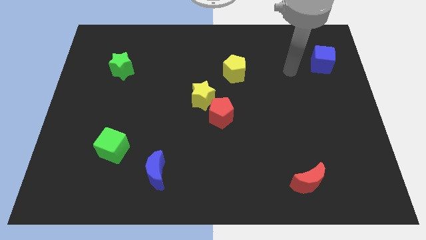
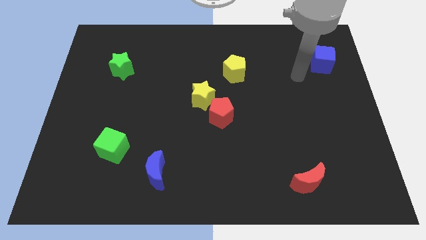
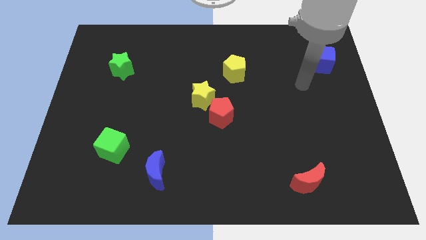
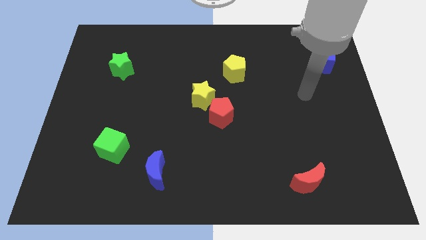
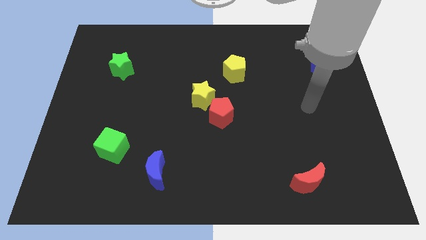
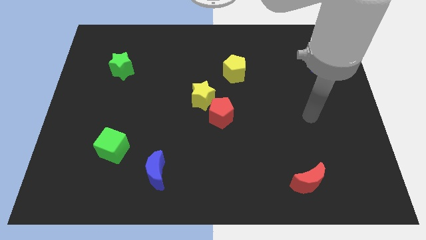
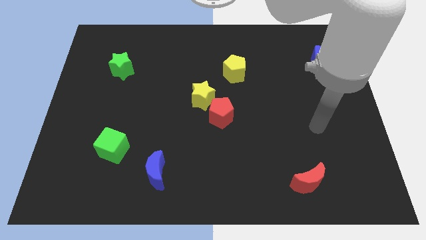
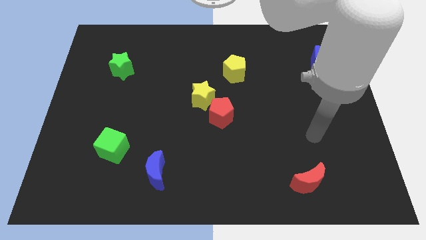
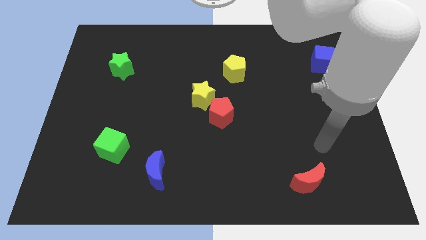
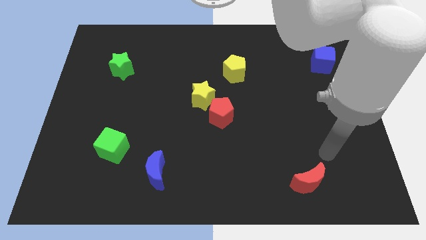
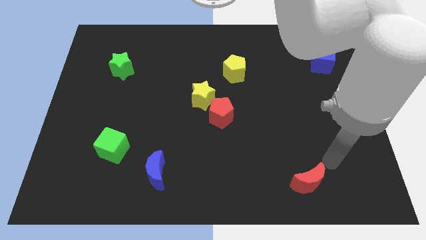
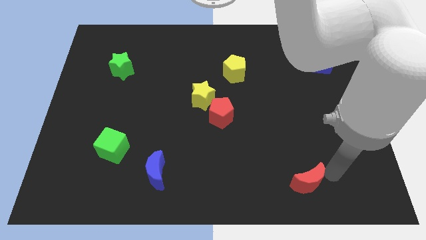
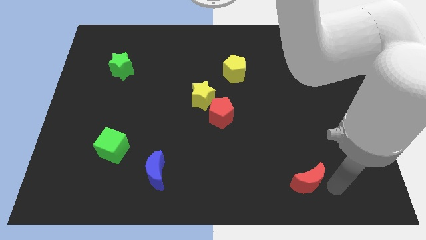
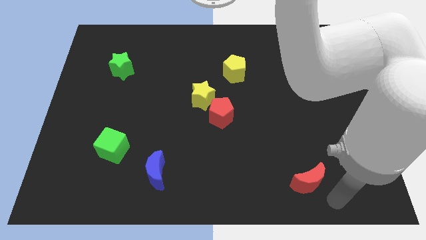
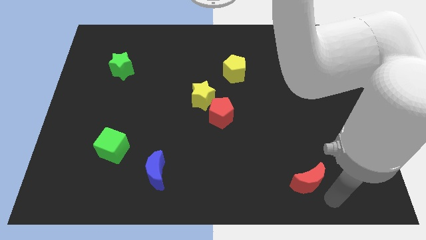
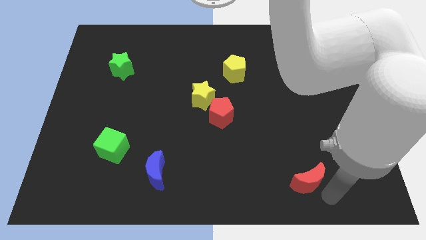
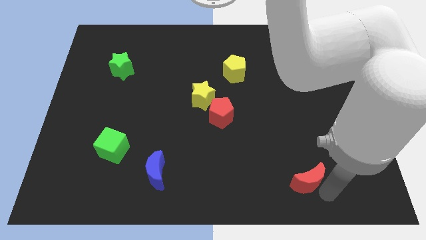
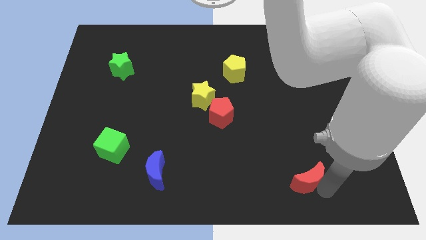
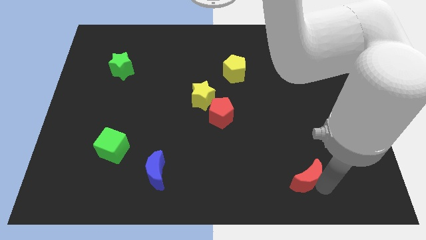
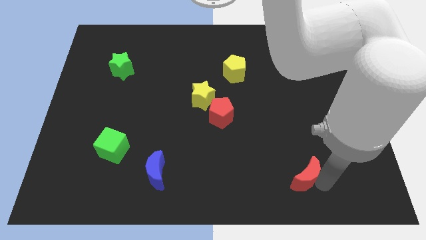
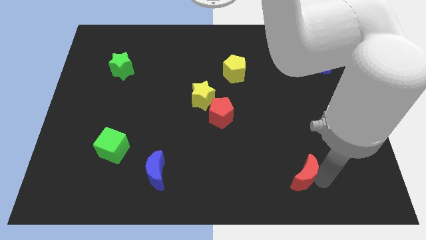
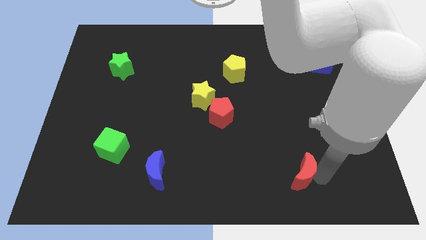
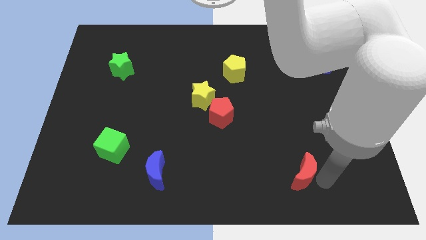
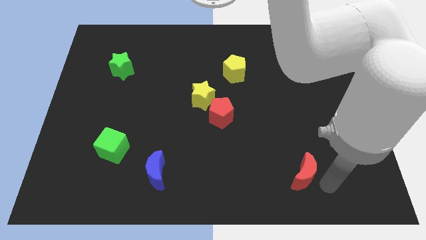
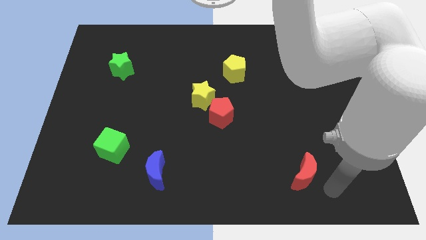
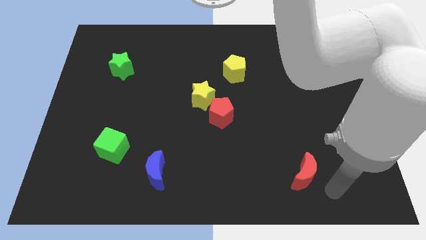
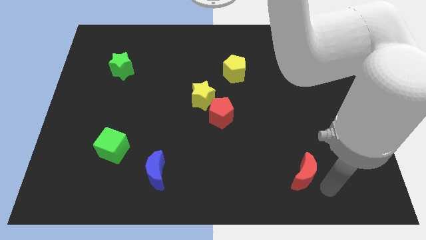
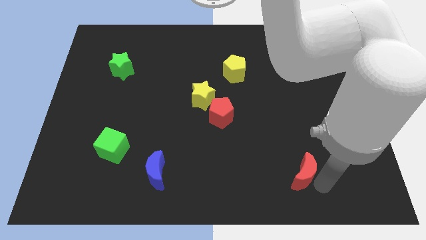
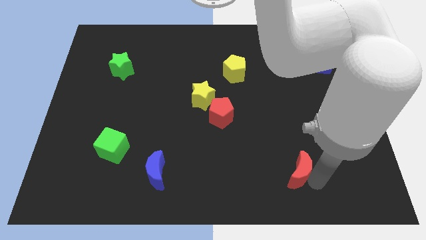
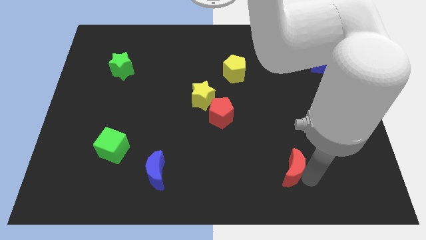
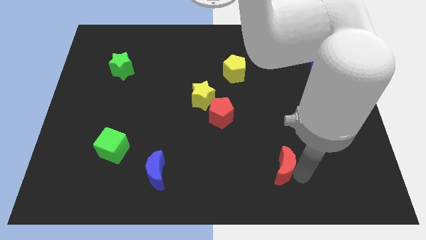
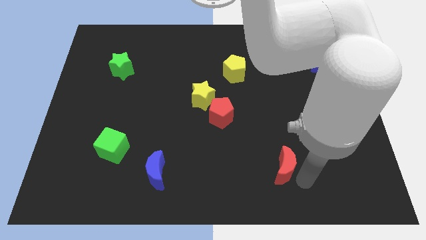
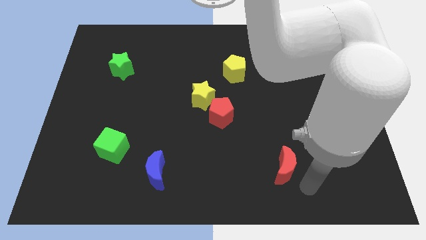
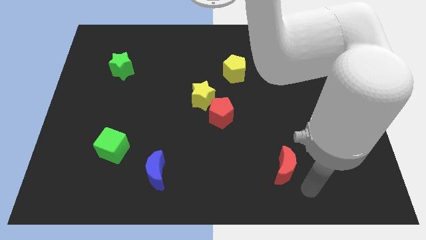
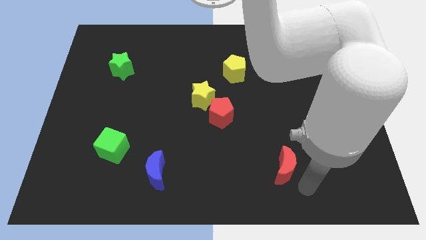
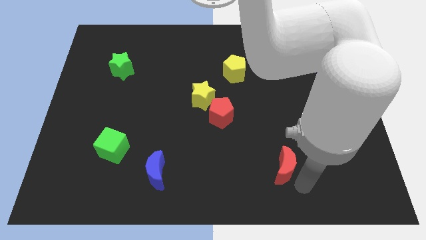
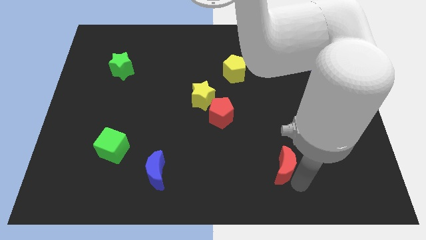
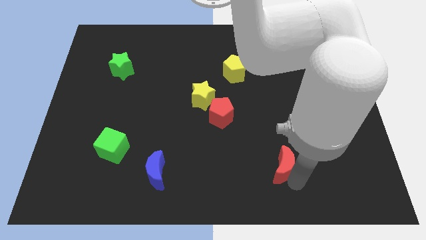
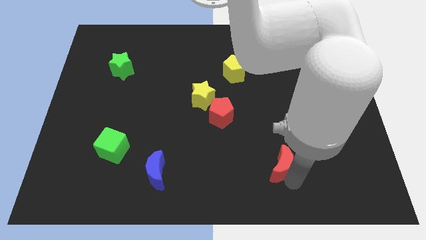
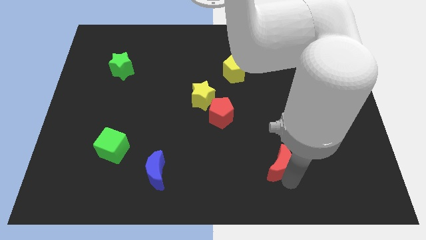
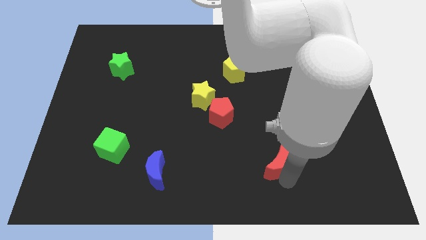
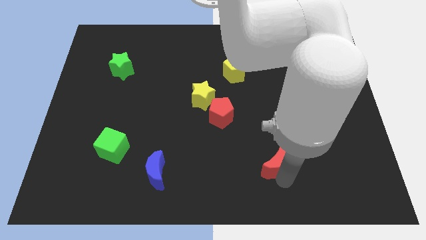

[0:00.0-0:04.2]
push the red moon a bit diagonally up and left

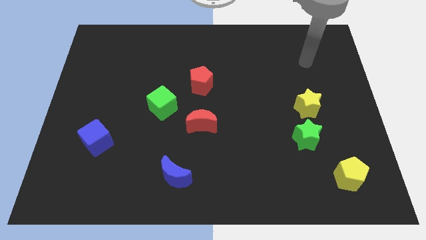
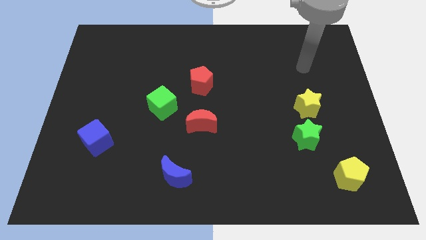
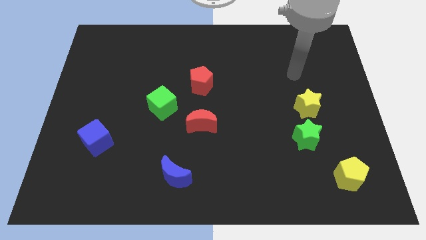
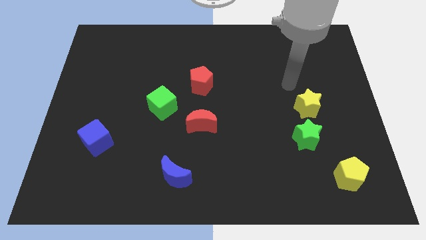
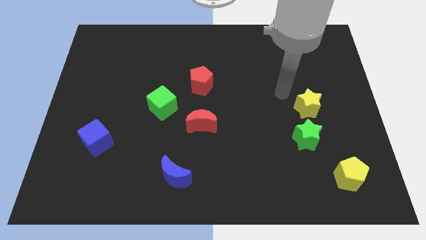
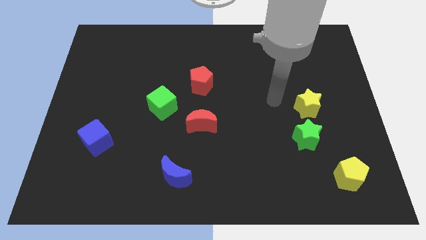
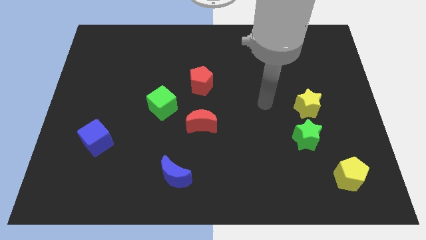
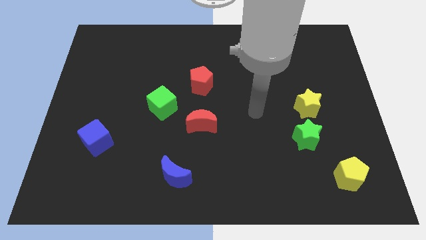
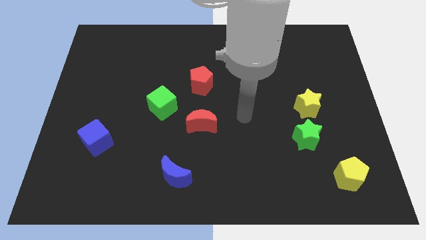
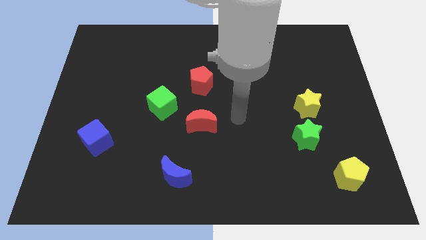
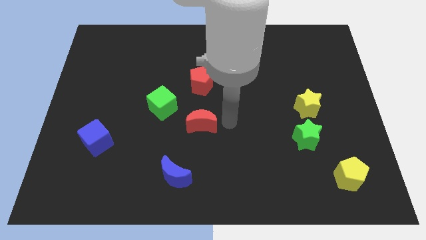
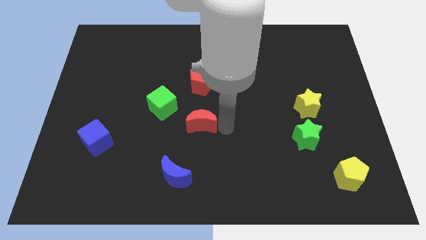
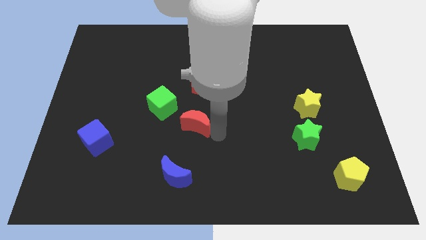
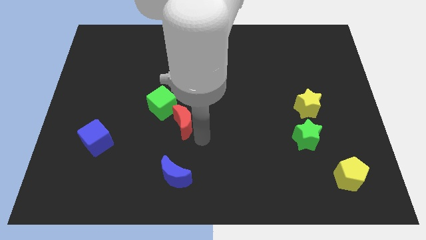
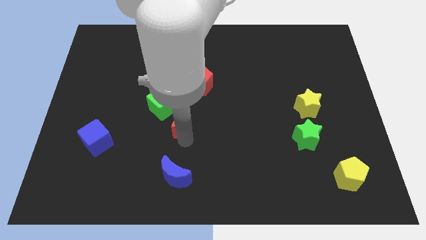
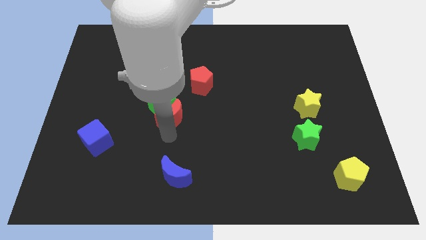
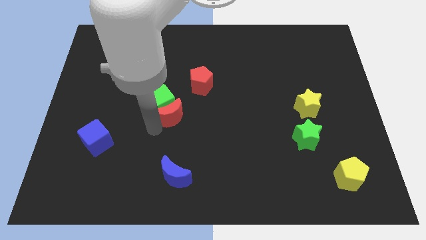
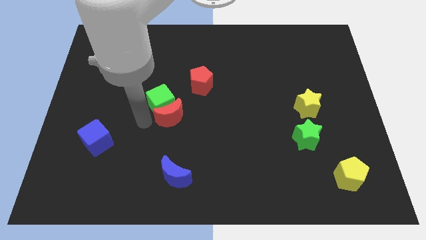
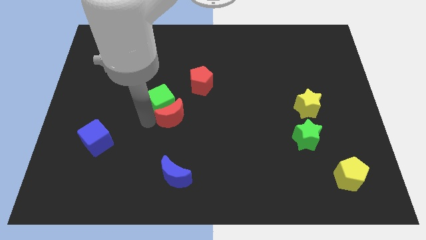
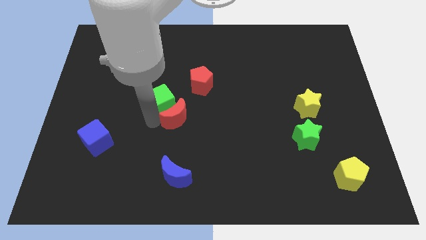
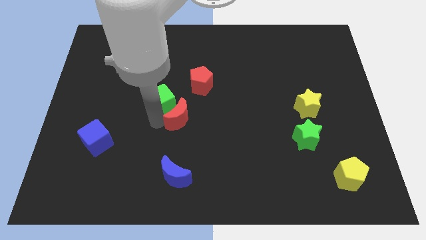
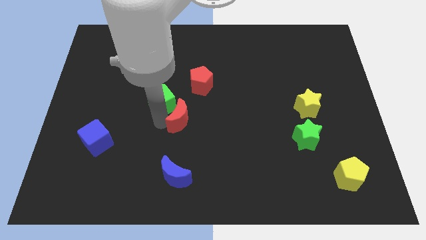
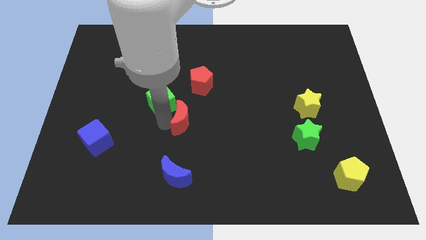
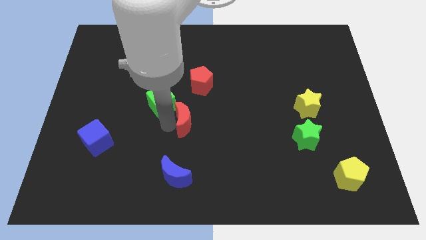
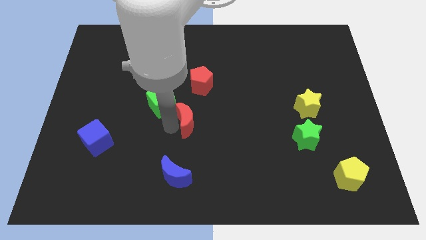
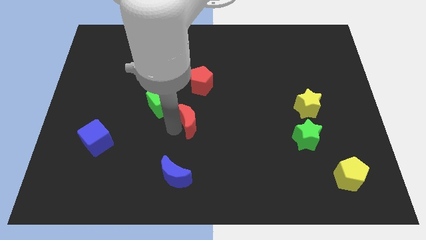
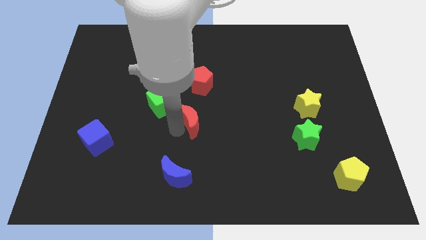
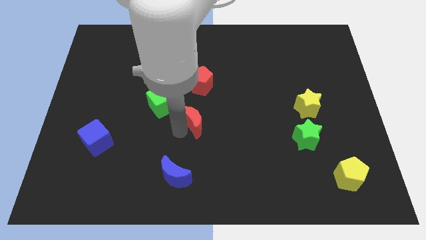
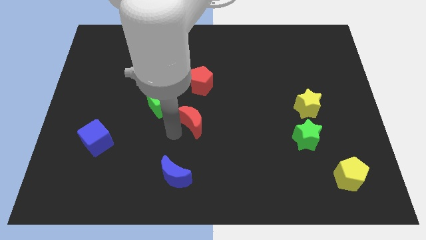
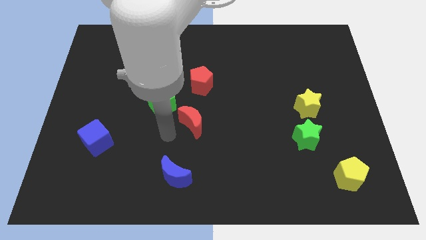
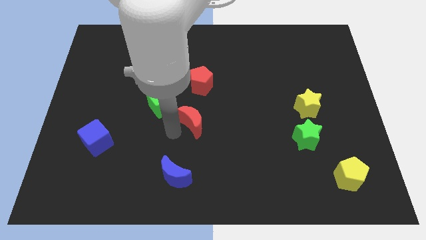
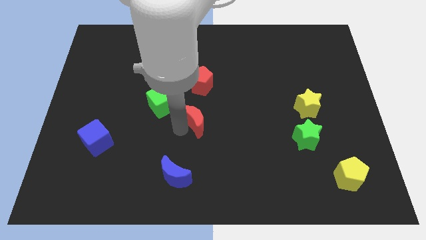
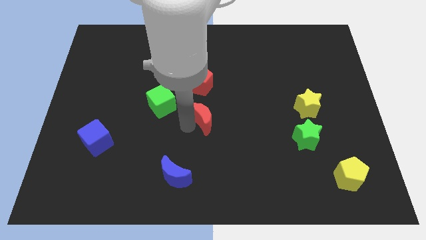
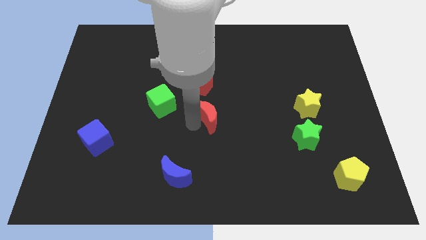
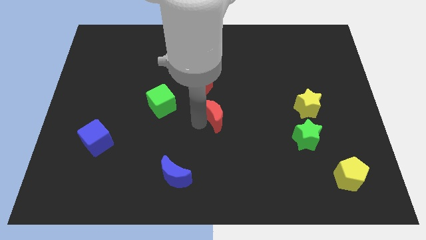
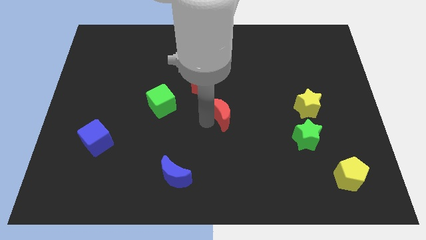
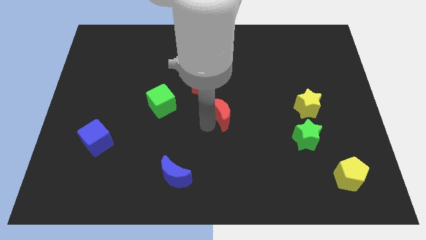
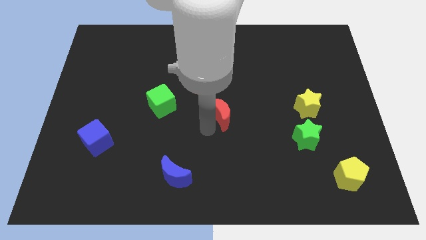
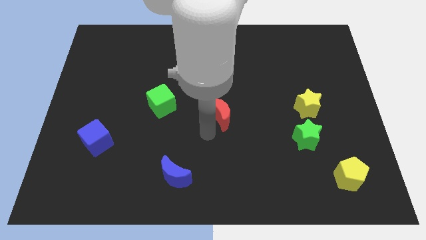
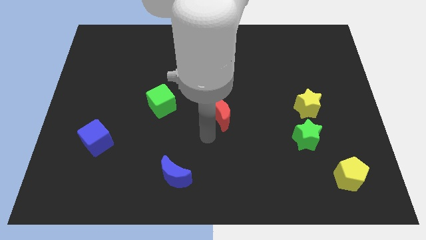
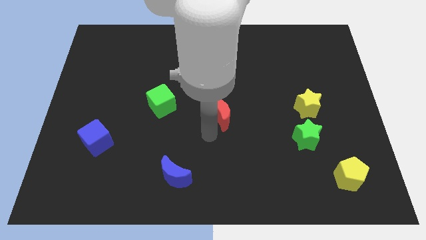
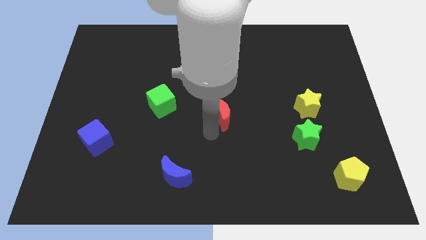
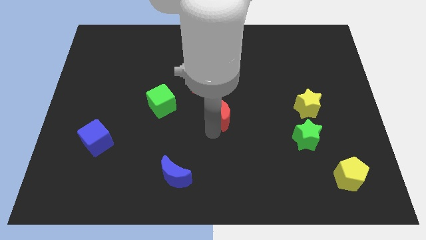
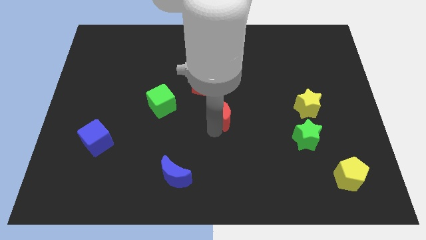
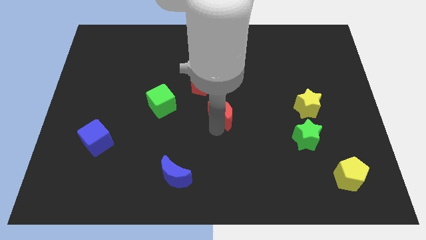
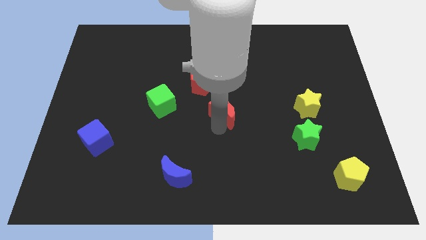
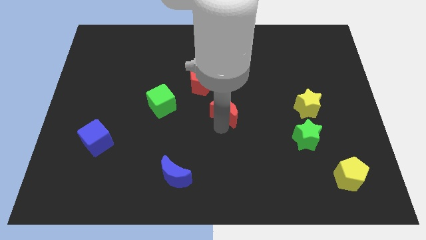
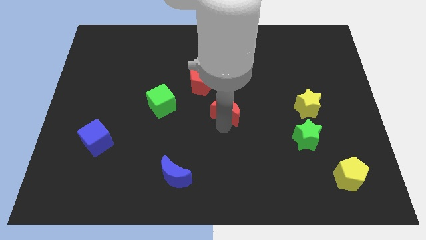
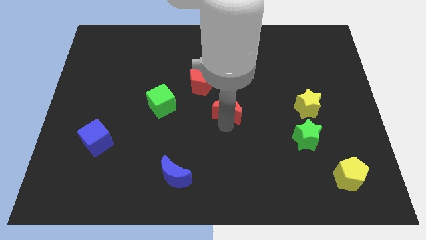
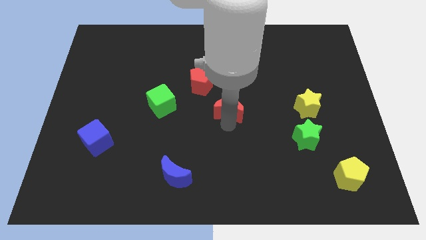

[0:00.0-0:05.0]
push the red moon diagonally up and to the right somewhat
